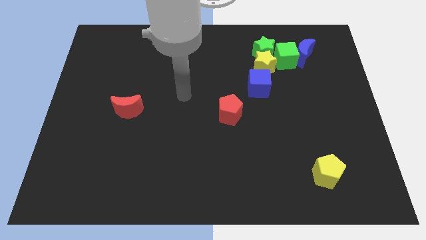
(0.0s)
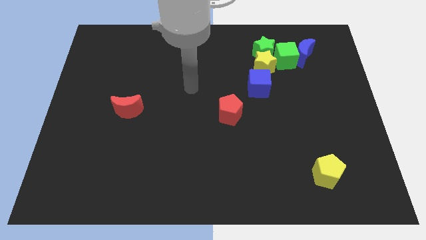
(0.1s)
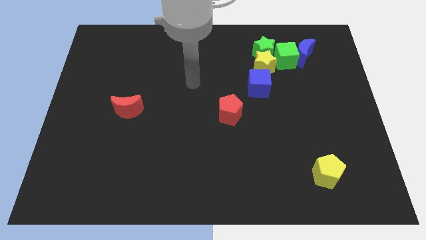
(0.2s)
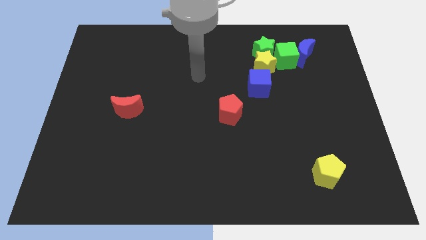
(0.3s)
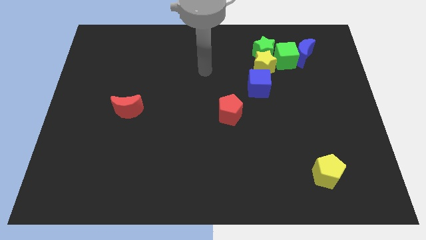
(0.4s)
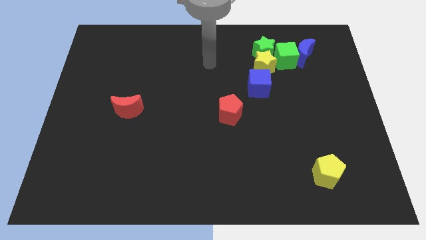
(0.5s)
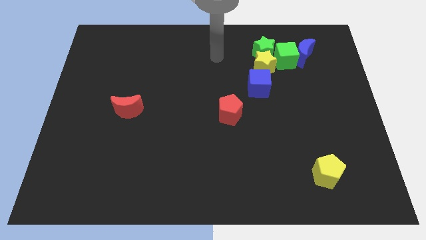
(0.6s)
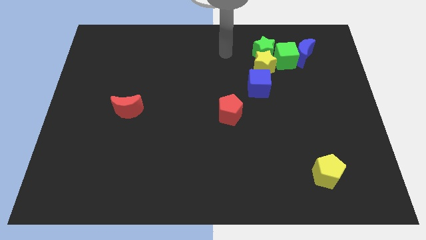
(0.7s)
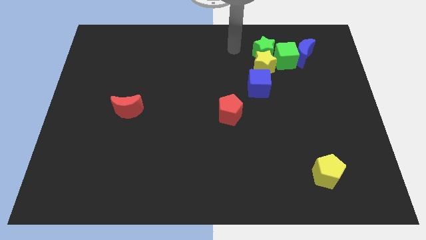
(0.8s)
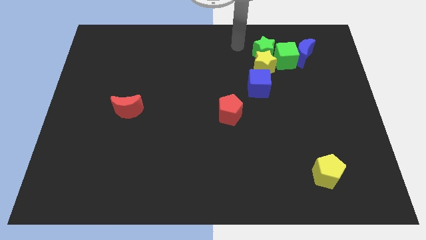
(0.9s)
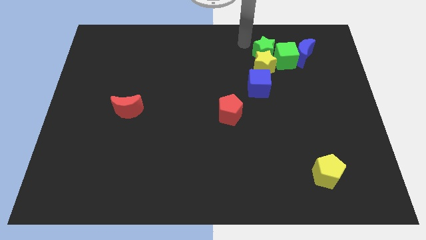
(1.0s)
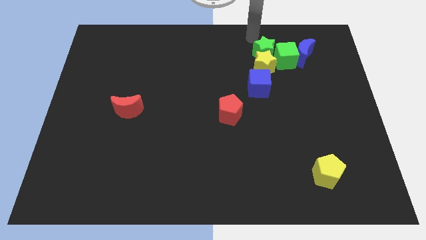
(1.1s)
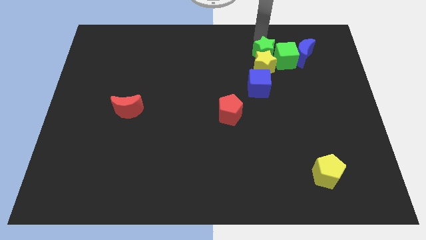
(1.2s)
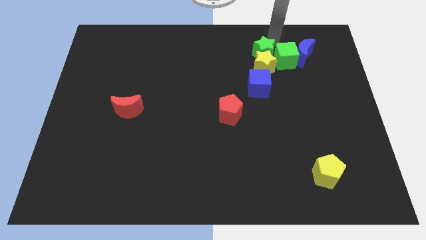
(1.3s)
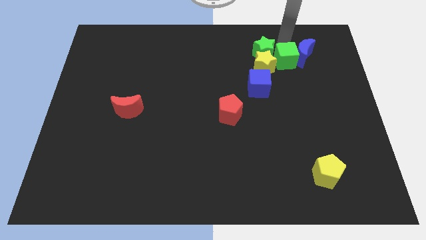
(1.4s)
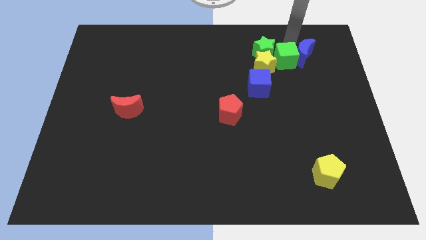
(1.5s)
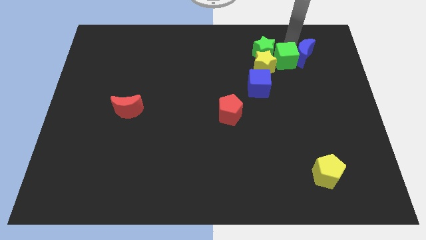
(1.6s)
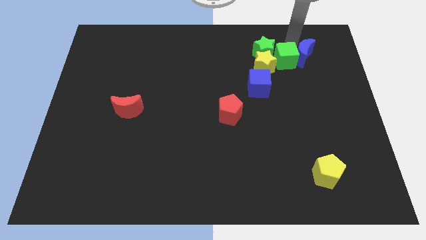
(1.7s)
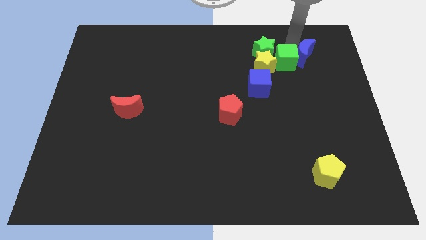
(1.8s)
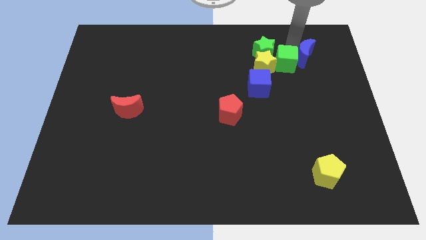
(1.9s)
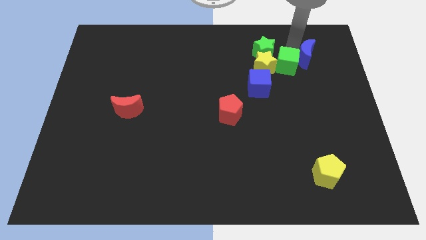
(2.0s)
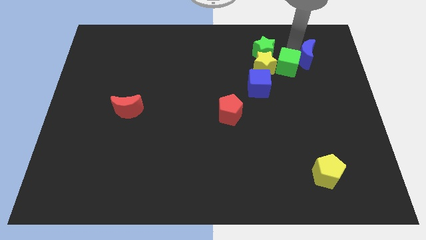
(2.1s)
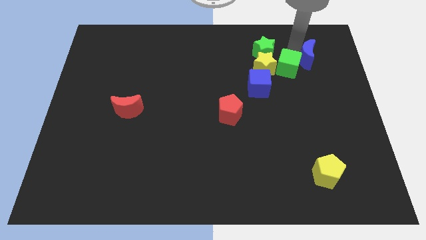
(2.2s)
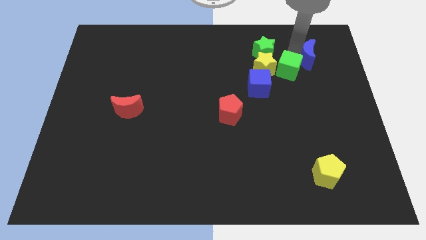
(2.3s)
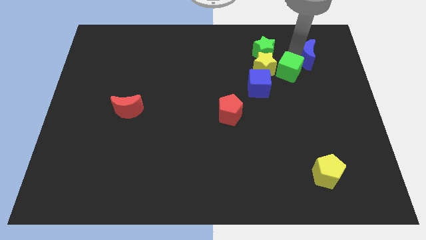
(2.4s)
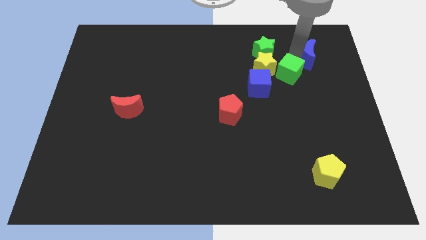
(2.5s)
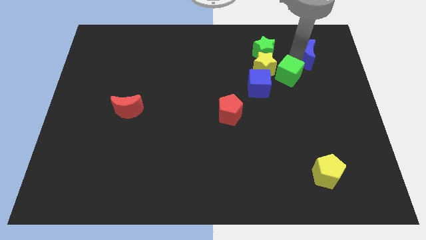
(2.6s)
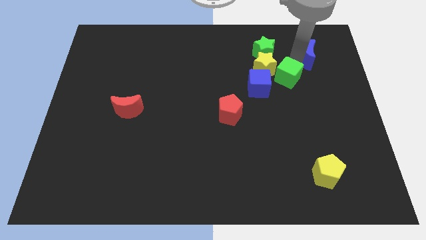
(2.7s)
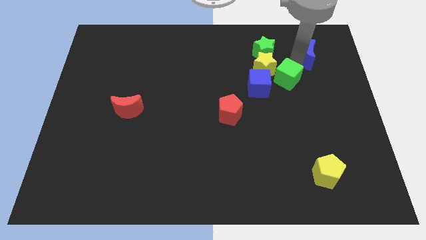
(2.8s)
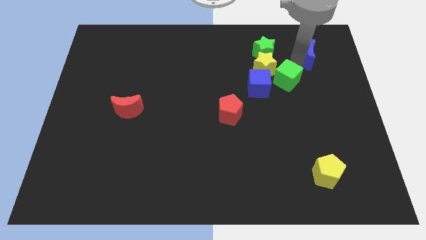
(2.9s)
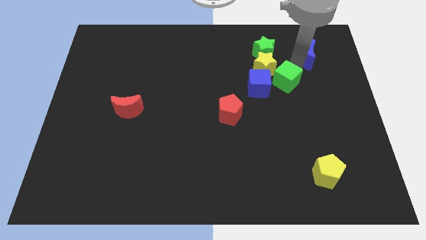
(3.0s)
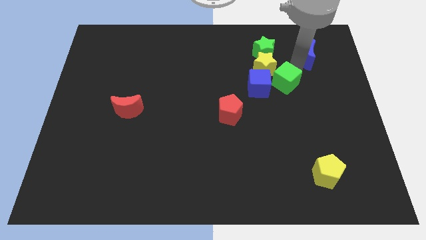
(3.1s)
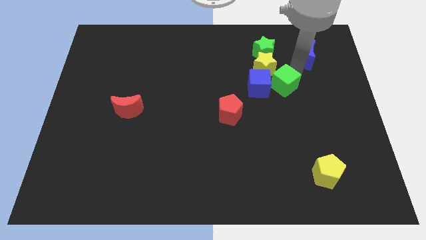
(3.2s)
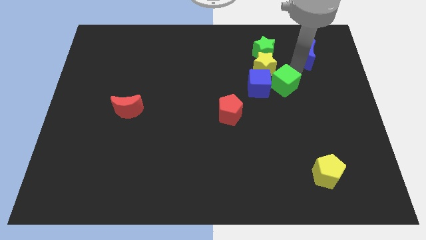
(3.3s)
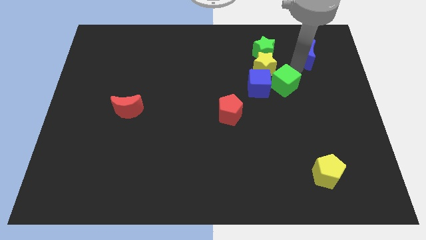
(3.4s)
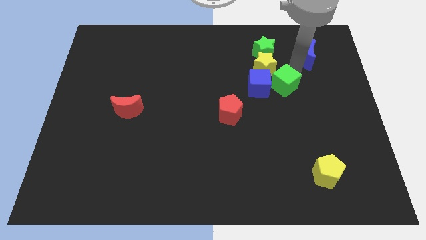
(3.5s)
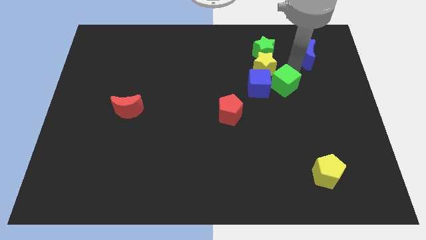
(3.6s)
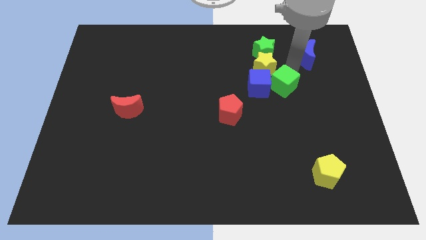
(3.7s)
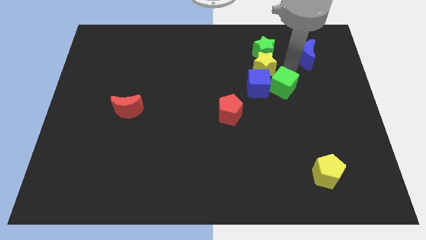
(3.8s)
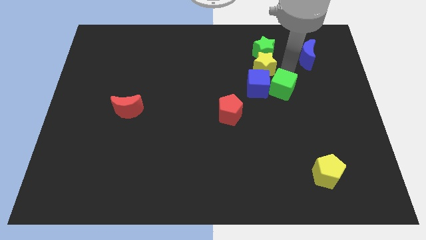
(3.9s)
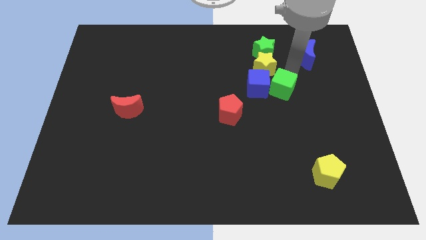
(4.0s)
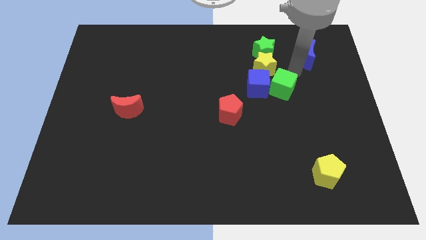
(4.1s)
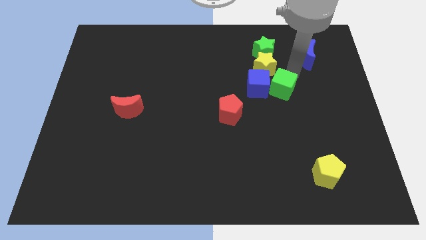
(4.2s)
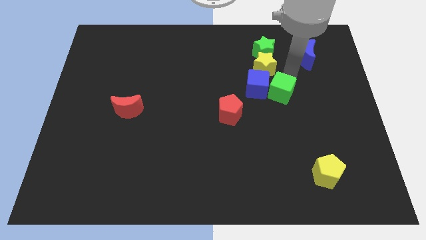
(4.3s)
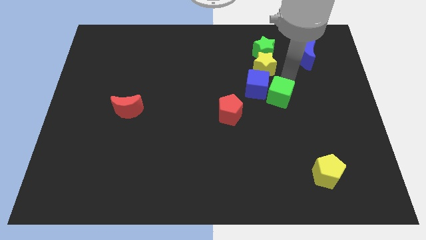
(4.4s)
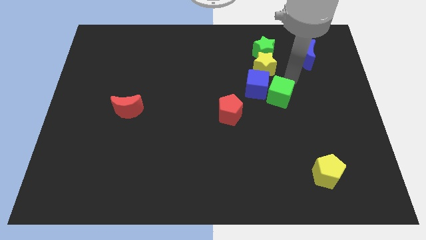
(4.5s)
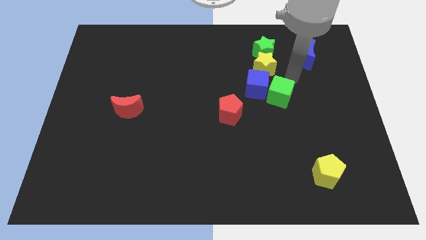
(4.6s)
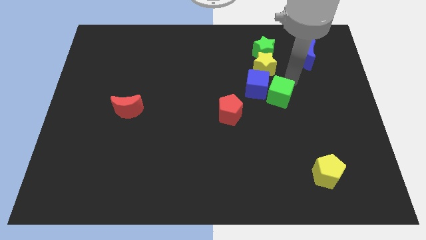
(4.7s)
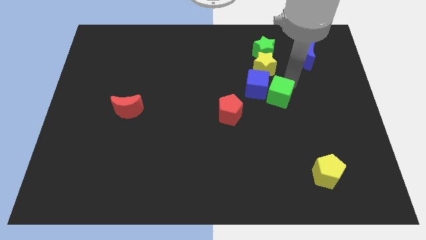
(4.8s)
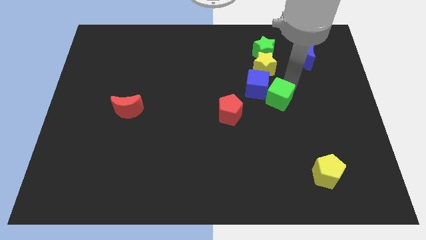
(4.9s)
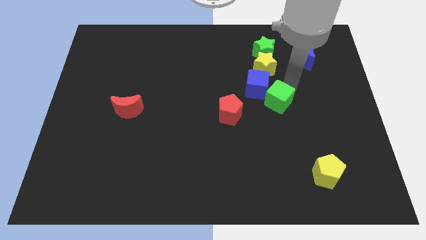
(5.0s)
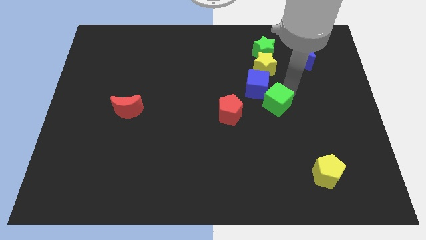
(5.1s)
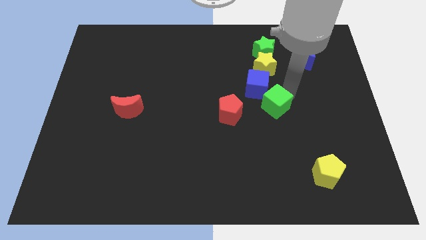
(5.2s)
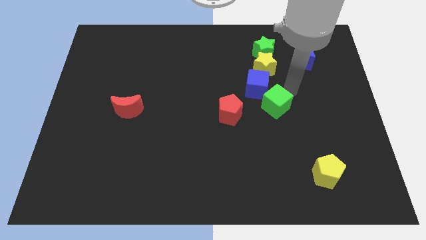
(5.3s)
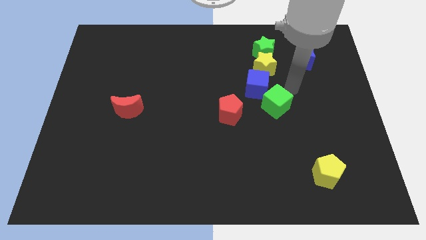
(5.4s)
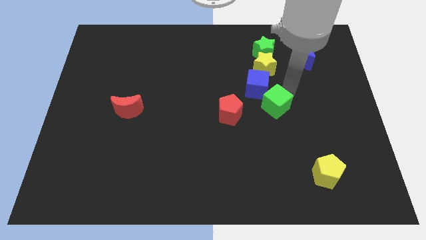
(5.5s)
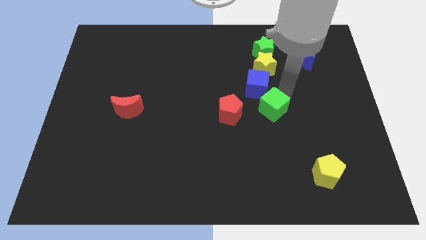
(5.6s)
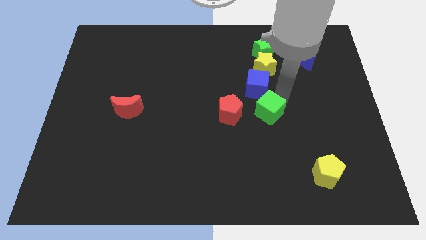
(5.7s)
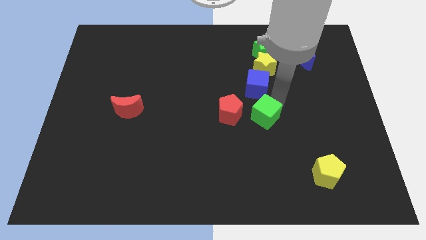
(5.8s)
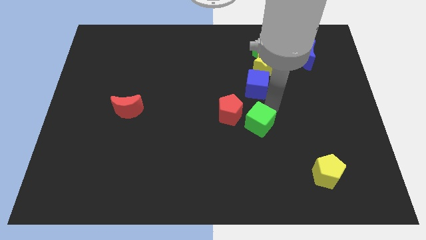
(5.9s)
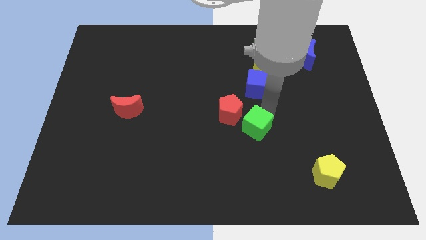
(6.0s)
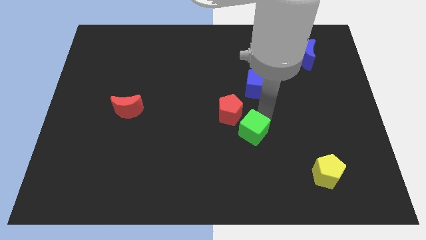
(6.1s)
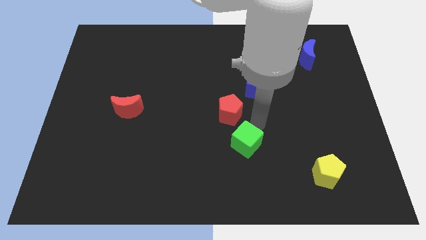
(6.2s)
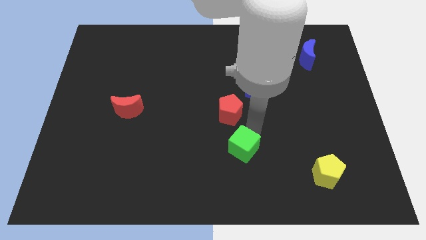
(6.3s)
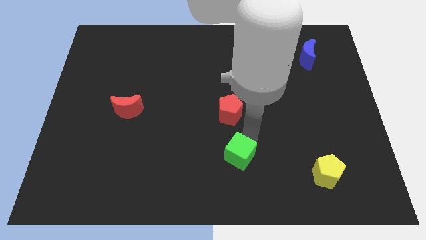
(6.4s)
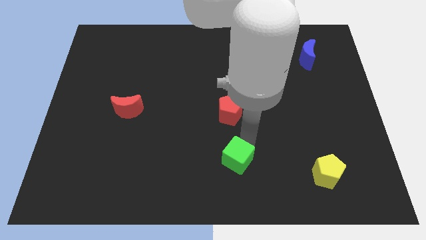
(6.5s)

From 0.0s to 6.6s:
push the green cube to the bottom side
